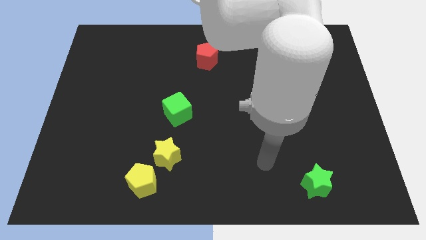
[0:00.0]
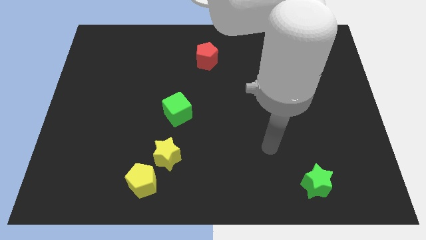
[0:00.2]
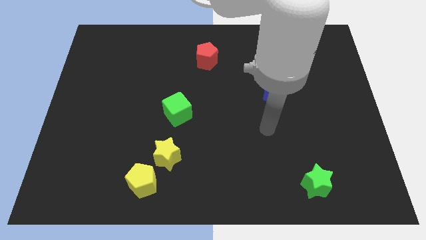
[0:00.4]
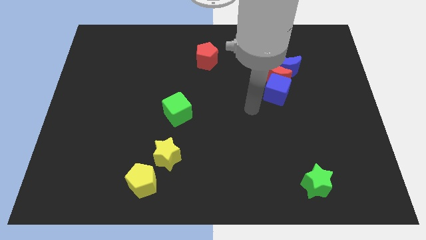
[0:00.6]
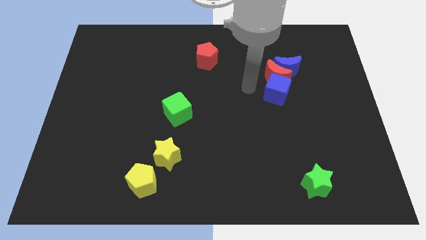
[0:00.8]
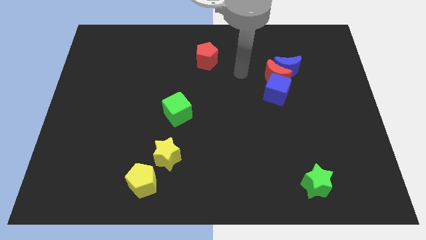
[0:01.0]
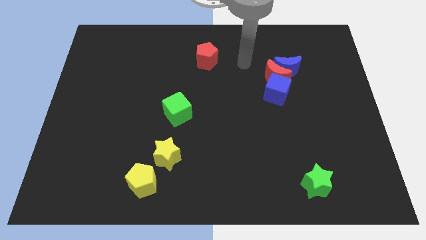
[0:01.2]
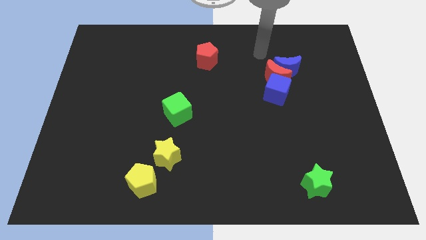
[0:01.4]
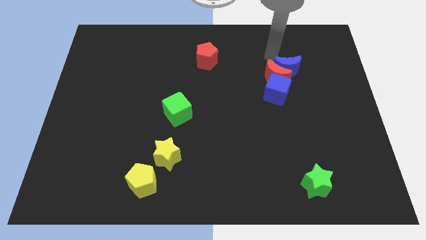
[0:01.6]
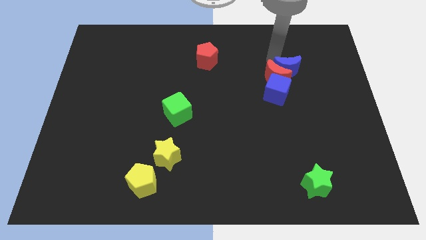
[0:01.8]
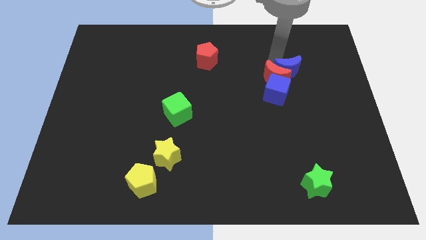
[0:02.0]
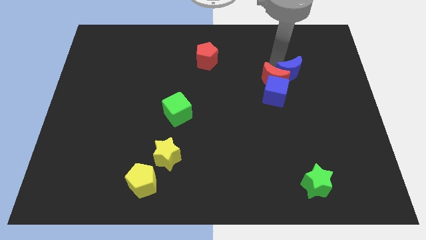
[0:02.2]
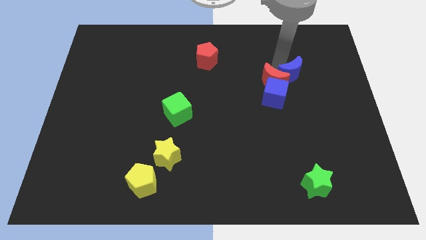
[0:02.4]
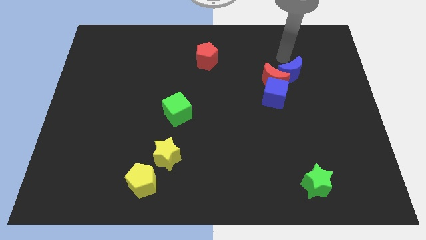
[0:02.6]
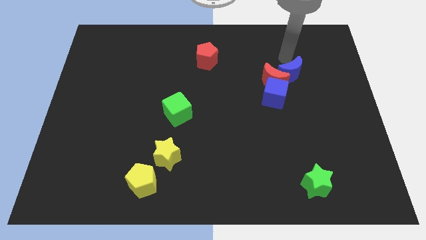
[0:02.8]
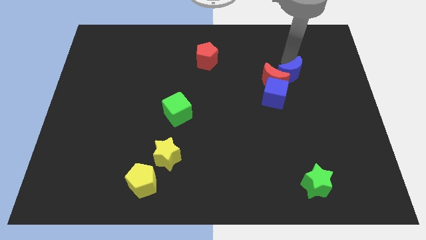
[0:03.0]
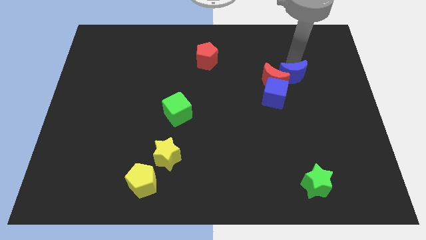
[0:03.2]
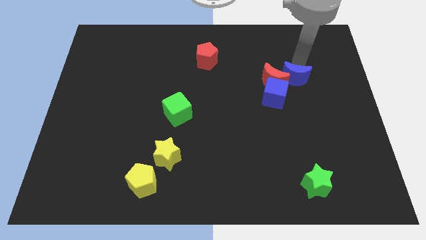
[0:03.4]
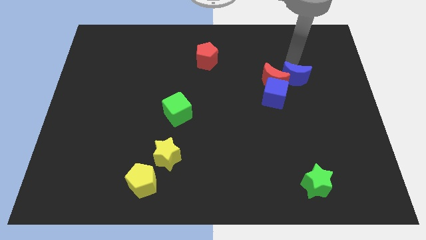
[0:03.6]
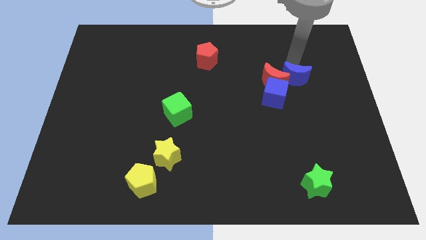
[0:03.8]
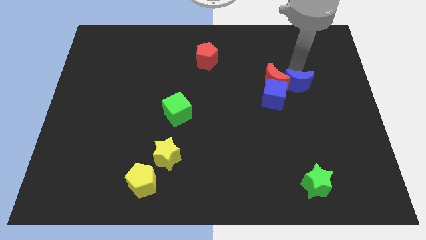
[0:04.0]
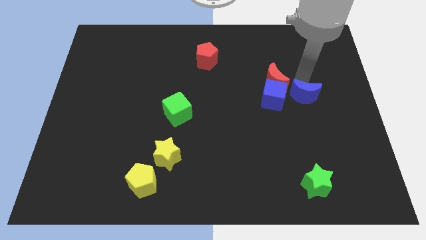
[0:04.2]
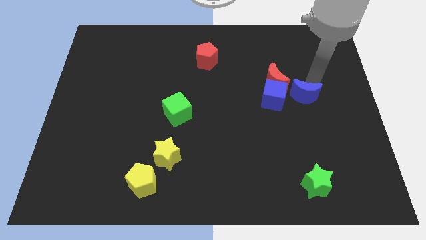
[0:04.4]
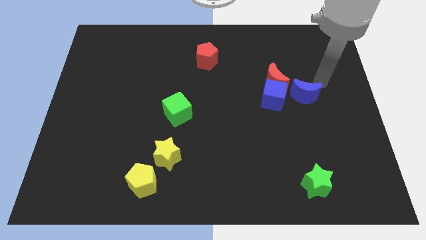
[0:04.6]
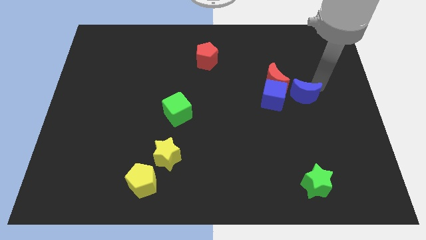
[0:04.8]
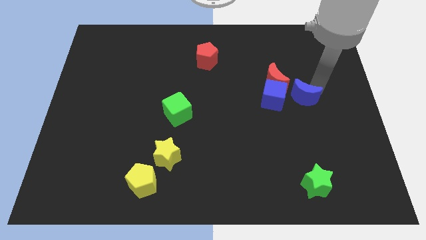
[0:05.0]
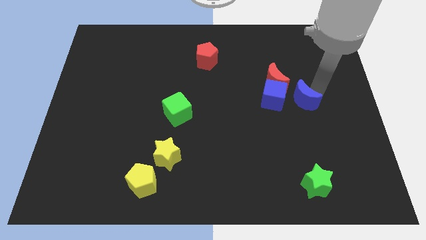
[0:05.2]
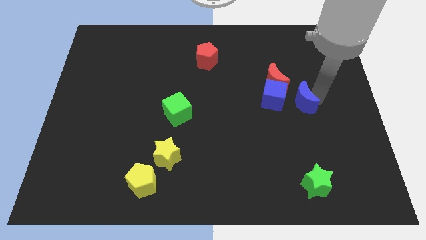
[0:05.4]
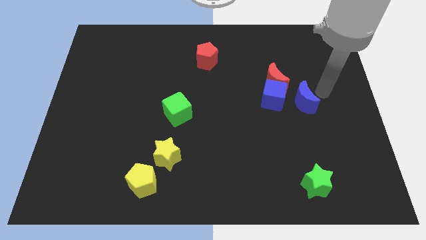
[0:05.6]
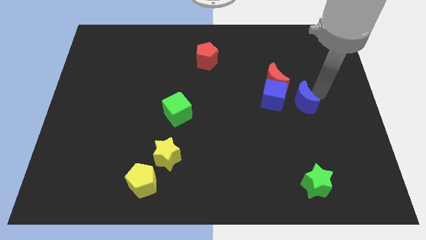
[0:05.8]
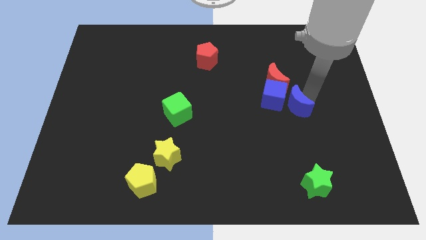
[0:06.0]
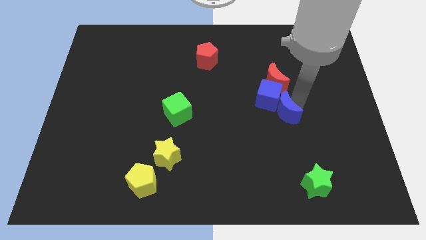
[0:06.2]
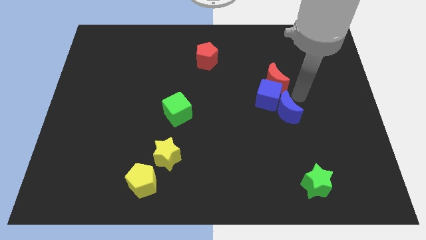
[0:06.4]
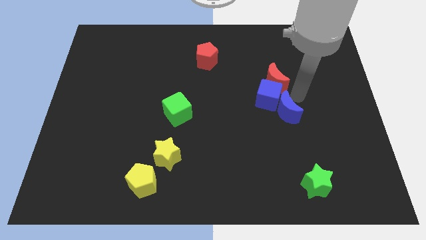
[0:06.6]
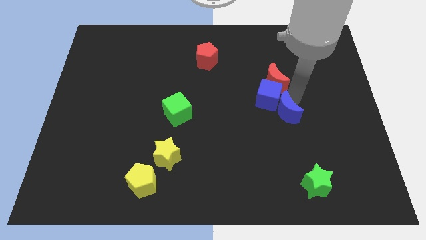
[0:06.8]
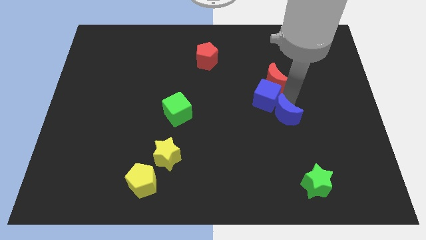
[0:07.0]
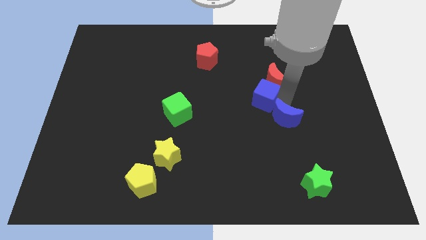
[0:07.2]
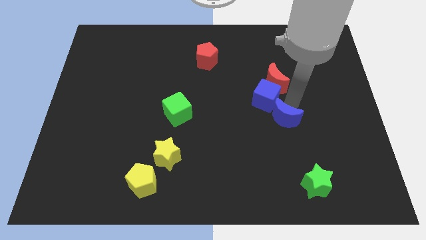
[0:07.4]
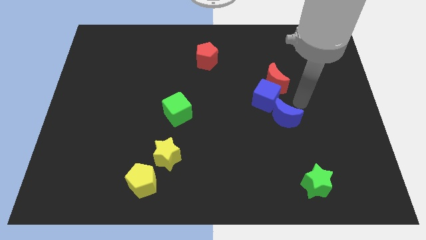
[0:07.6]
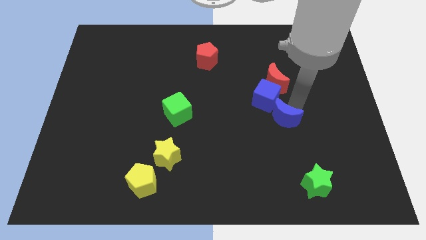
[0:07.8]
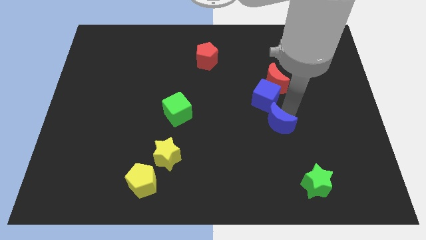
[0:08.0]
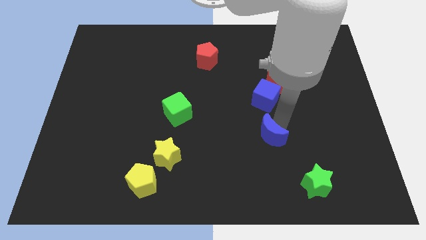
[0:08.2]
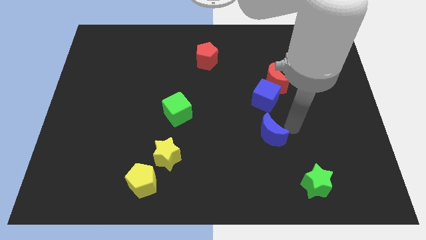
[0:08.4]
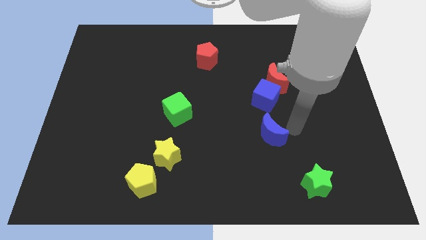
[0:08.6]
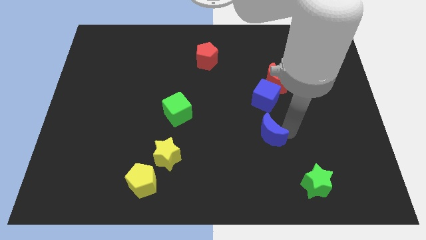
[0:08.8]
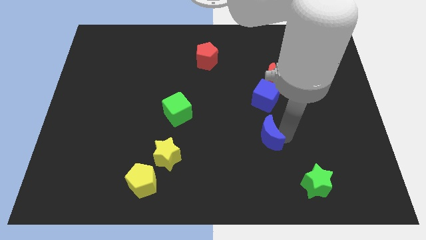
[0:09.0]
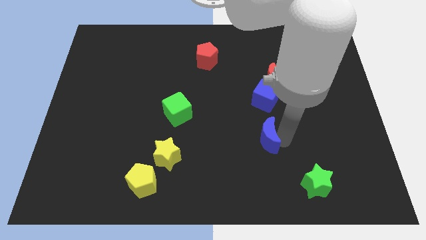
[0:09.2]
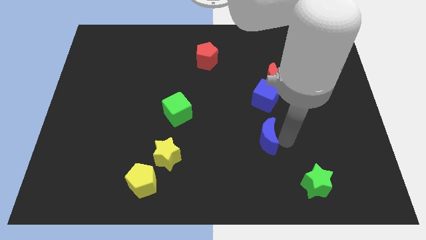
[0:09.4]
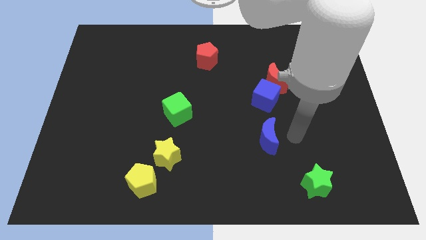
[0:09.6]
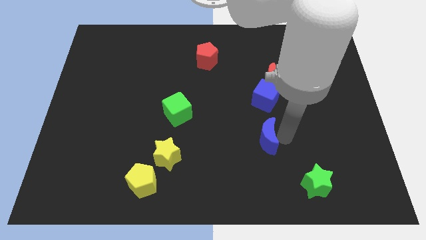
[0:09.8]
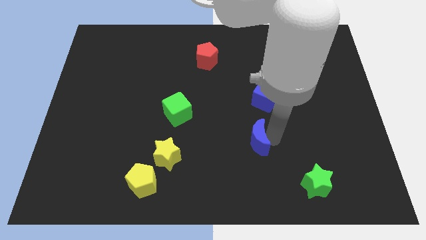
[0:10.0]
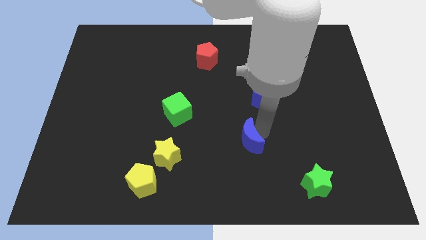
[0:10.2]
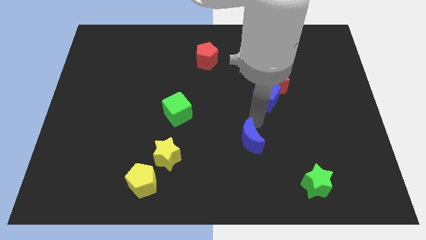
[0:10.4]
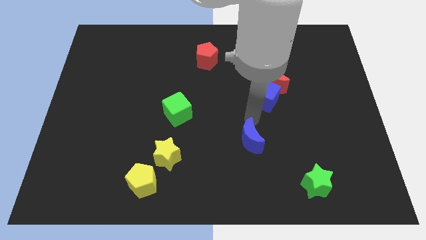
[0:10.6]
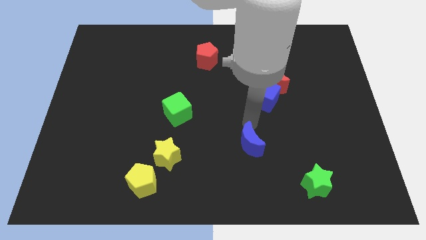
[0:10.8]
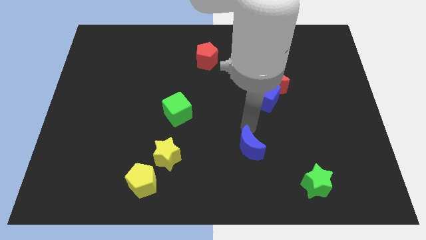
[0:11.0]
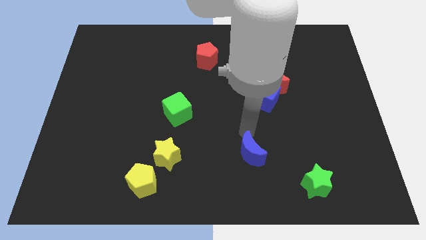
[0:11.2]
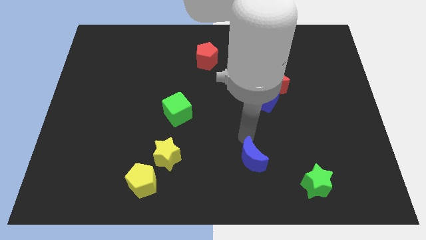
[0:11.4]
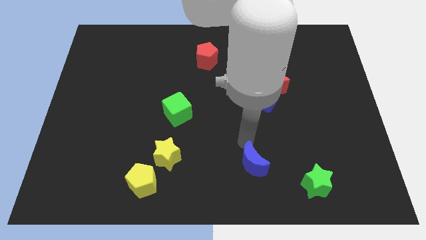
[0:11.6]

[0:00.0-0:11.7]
put the blue moon to the bottom side

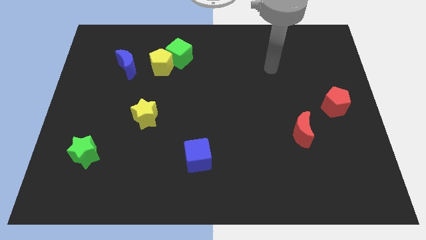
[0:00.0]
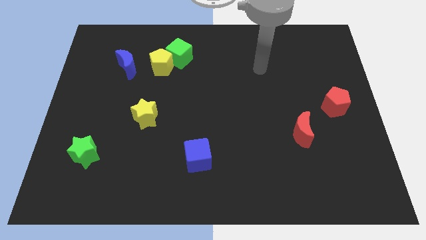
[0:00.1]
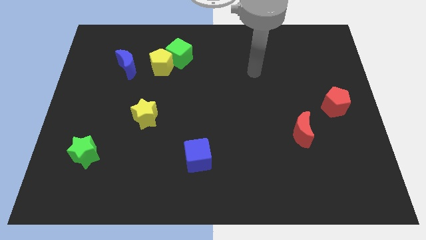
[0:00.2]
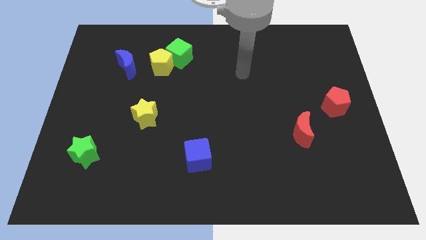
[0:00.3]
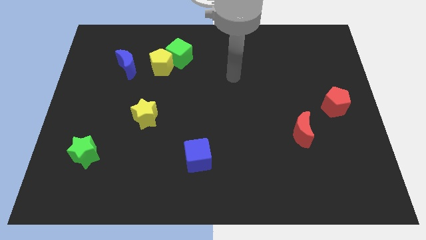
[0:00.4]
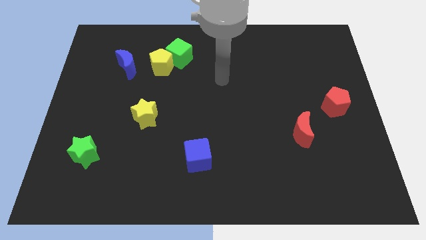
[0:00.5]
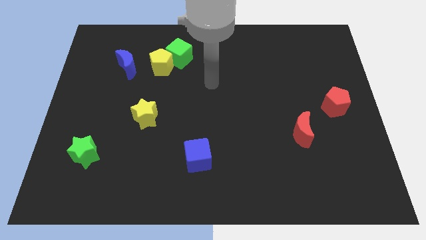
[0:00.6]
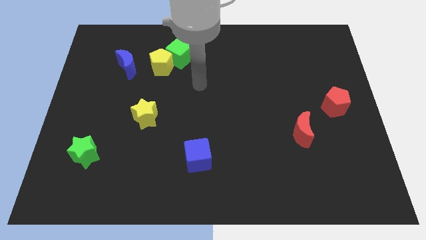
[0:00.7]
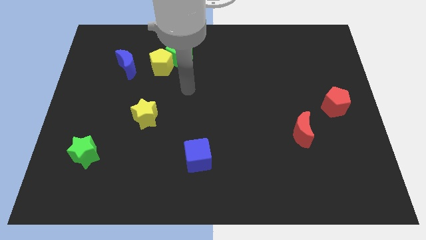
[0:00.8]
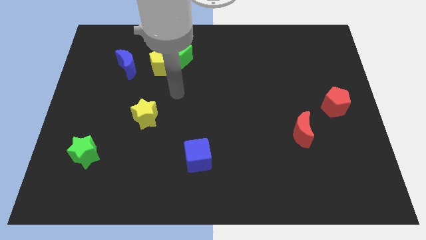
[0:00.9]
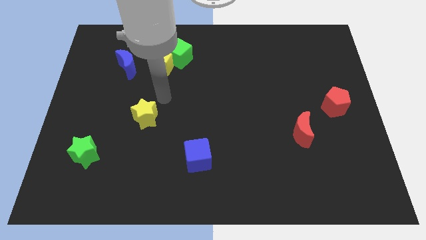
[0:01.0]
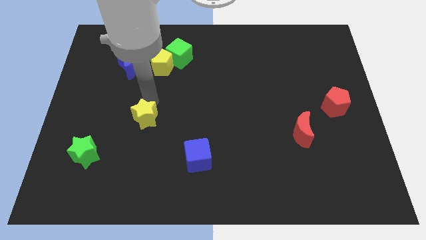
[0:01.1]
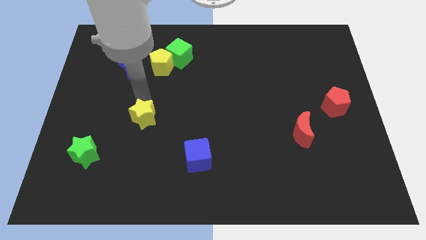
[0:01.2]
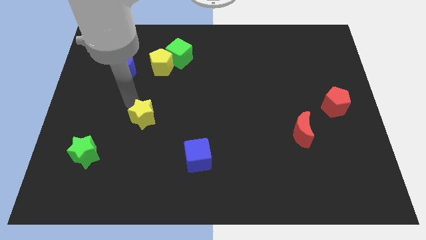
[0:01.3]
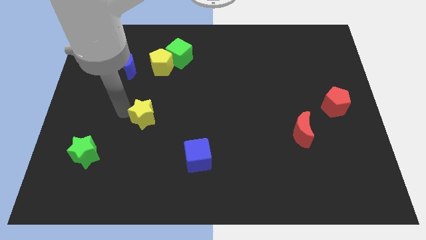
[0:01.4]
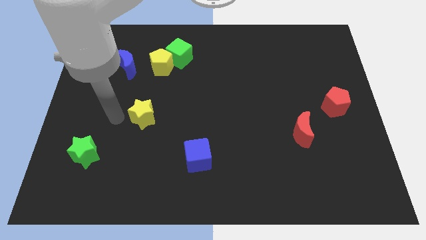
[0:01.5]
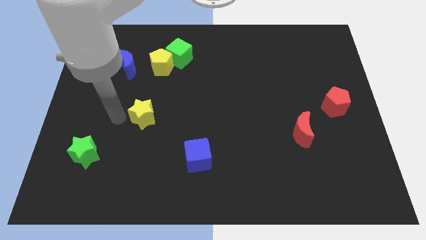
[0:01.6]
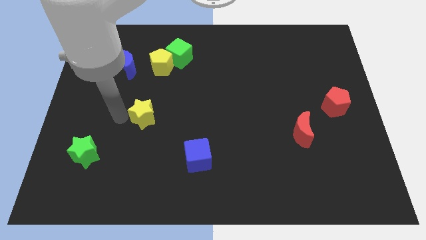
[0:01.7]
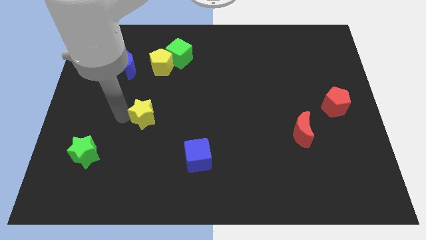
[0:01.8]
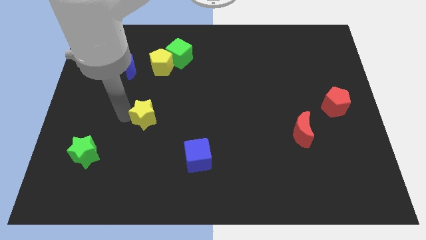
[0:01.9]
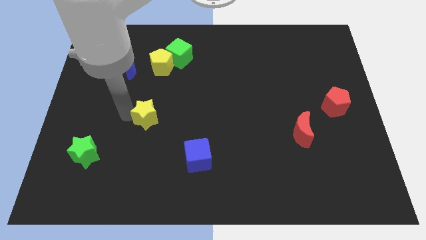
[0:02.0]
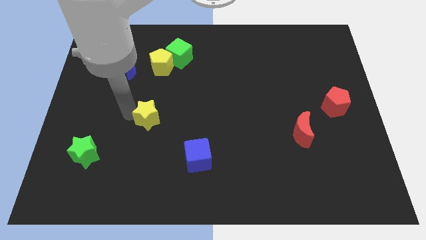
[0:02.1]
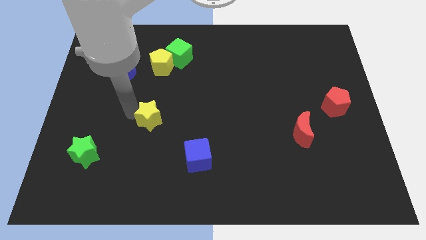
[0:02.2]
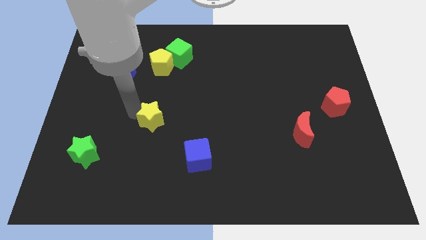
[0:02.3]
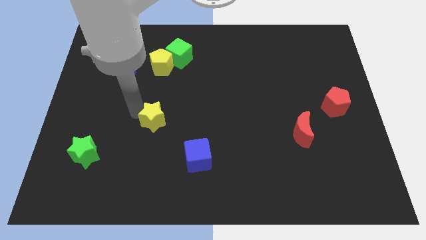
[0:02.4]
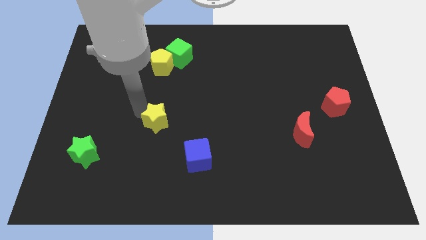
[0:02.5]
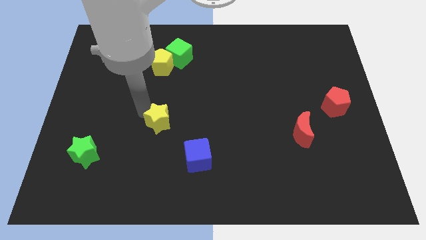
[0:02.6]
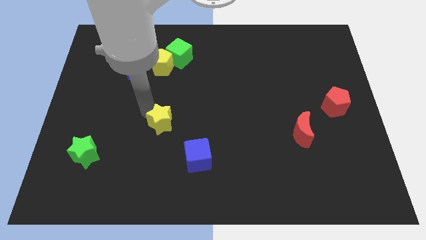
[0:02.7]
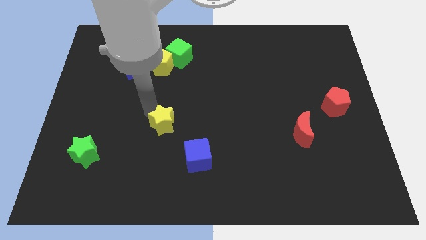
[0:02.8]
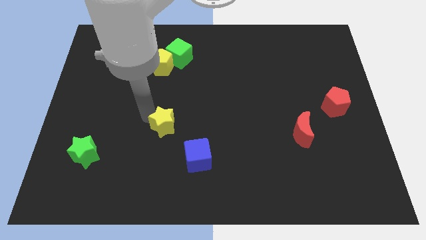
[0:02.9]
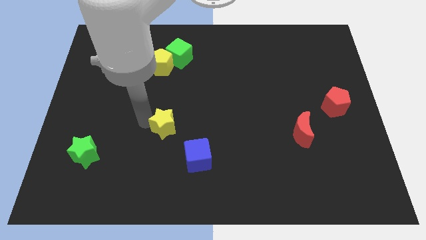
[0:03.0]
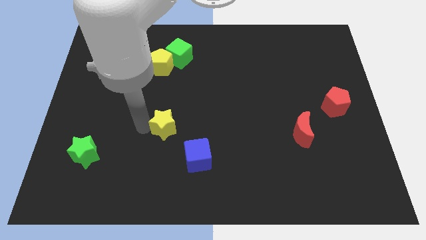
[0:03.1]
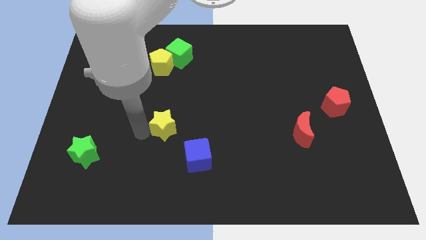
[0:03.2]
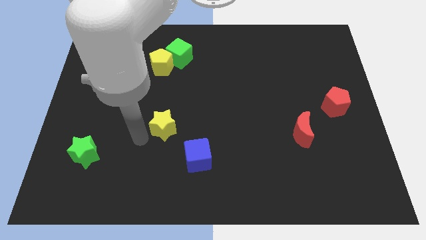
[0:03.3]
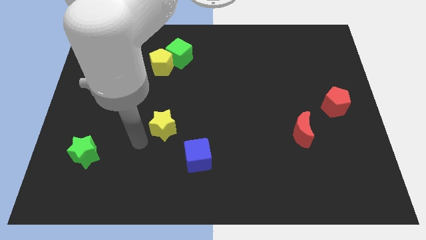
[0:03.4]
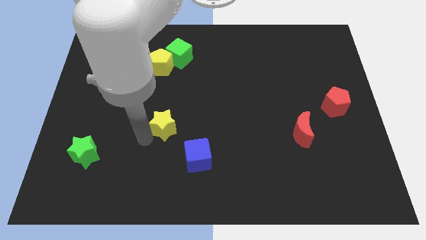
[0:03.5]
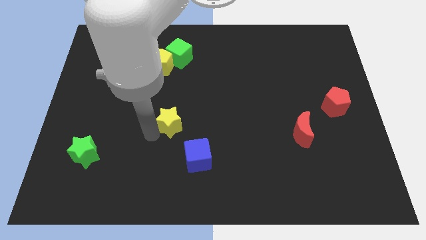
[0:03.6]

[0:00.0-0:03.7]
push the yellow star to the center of the board
